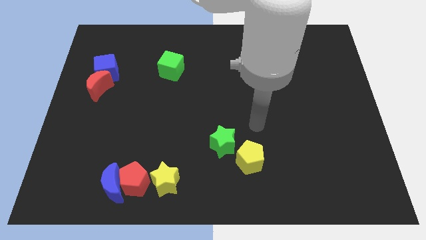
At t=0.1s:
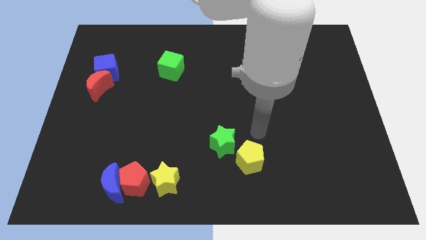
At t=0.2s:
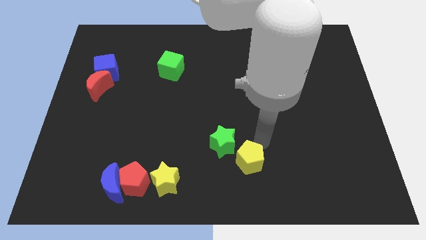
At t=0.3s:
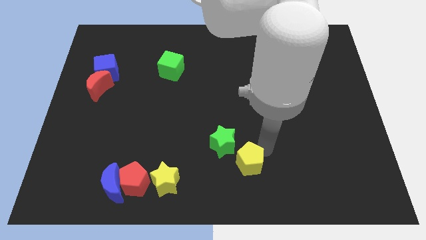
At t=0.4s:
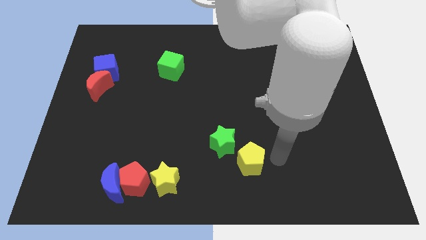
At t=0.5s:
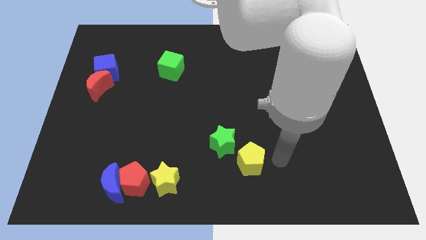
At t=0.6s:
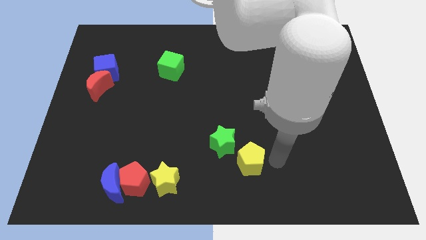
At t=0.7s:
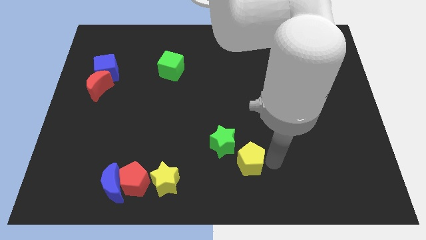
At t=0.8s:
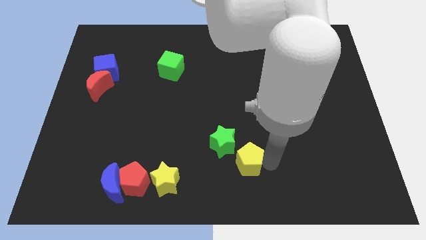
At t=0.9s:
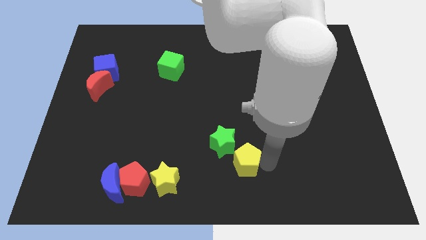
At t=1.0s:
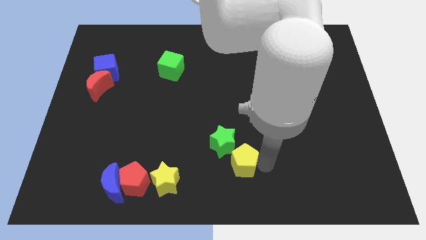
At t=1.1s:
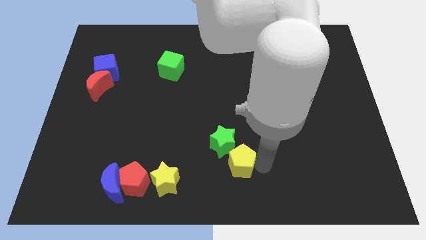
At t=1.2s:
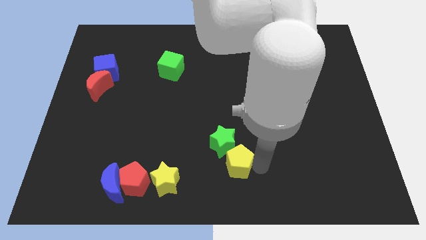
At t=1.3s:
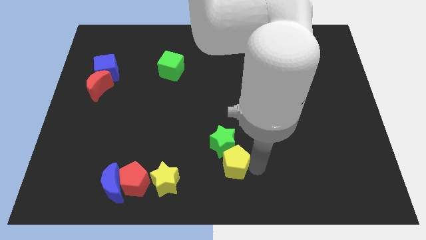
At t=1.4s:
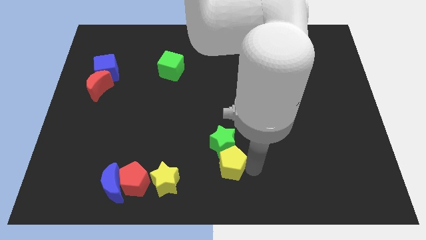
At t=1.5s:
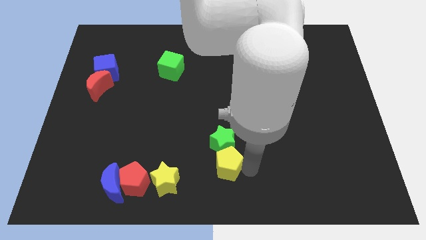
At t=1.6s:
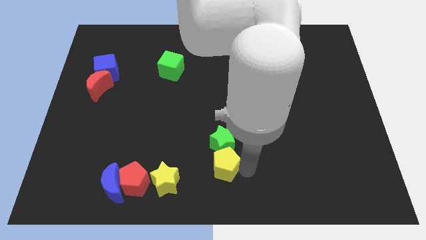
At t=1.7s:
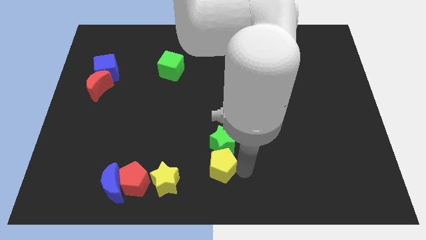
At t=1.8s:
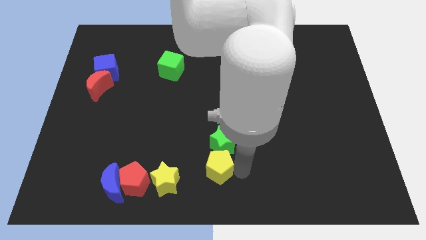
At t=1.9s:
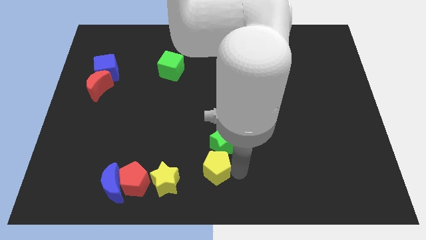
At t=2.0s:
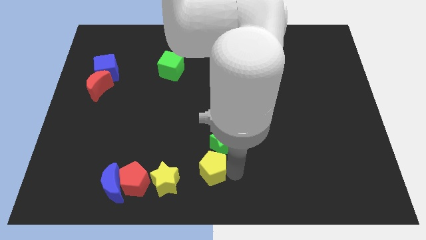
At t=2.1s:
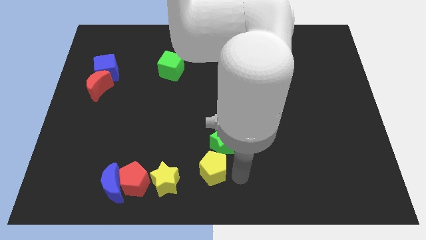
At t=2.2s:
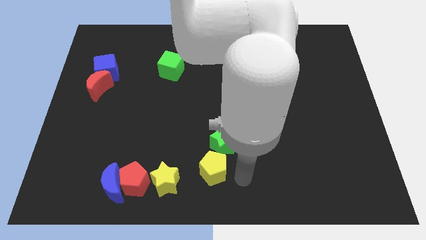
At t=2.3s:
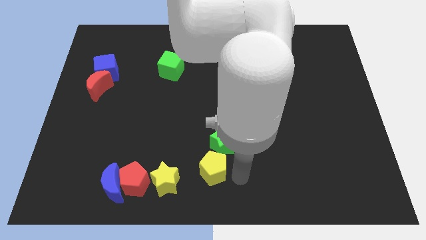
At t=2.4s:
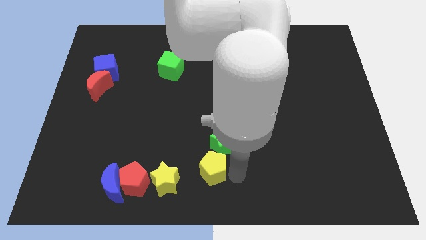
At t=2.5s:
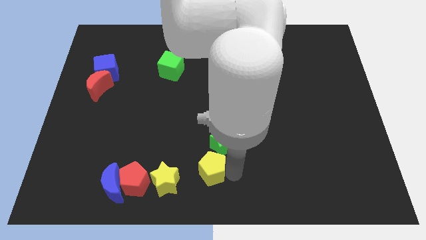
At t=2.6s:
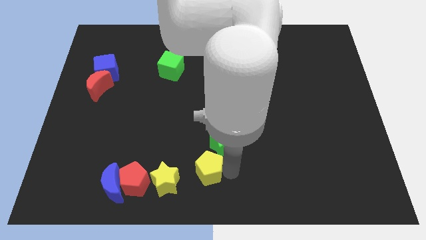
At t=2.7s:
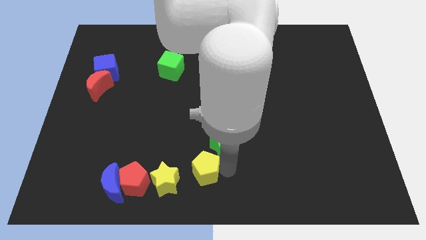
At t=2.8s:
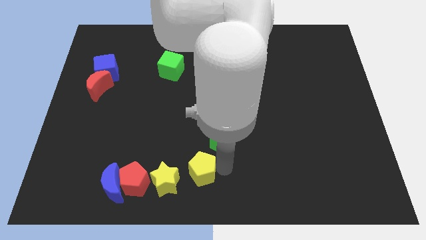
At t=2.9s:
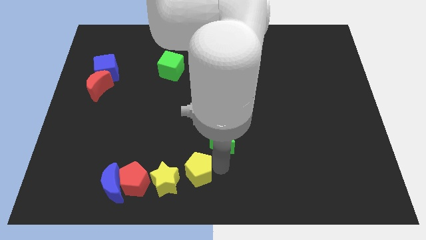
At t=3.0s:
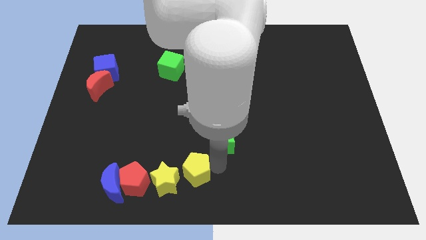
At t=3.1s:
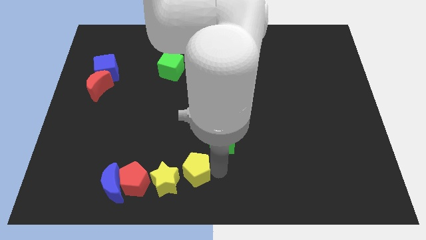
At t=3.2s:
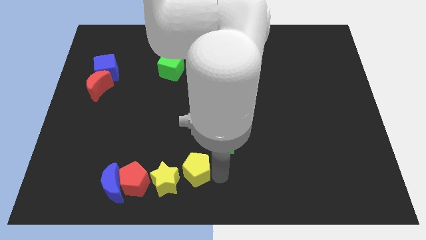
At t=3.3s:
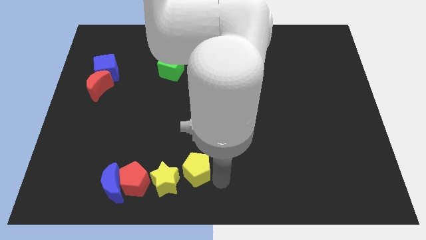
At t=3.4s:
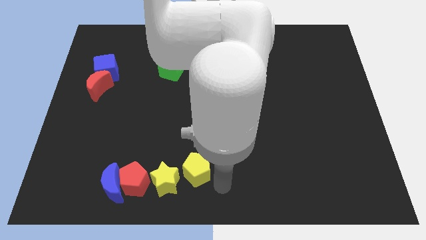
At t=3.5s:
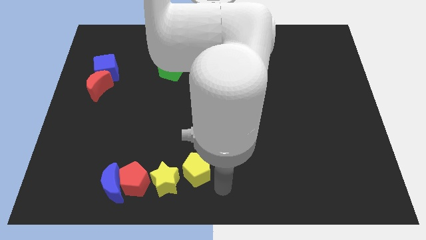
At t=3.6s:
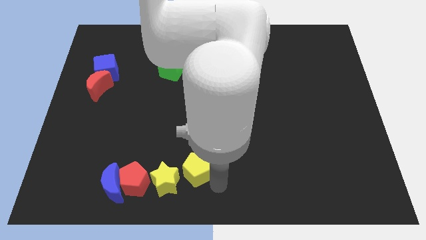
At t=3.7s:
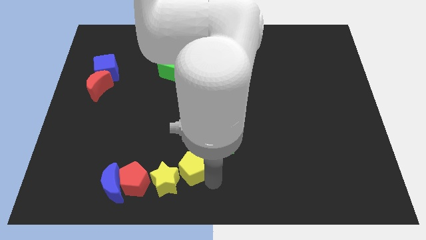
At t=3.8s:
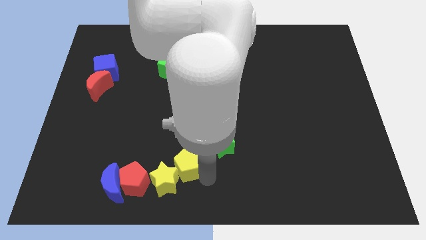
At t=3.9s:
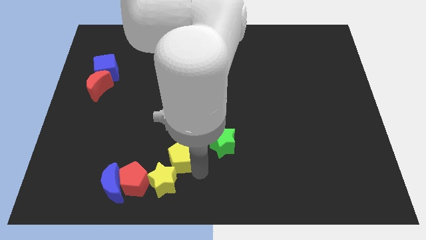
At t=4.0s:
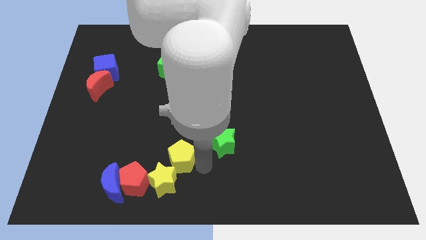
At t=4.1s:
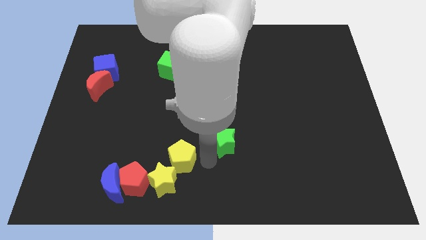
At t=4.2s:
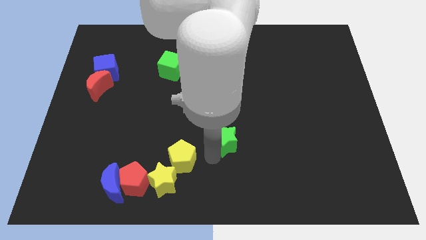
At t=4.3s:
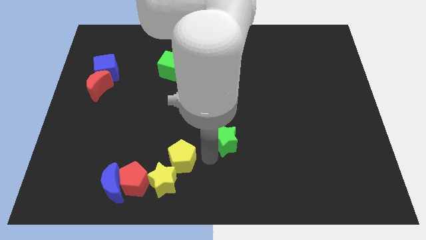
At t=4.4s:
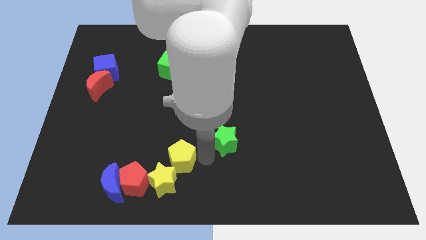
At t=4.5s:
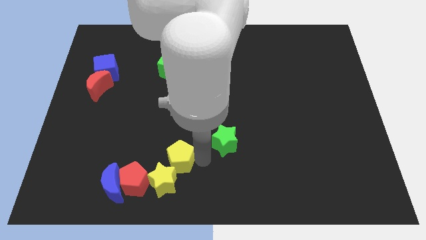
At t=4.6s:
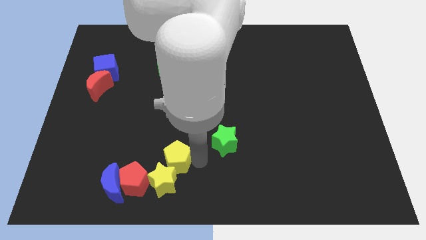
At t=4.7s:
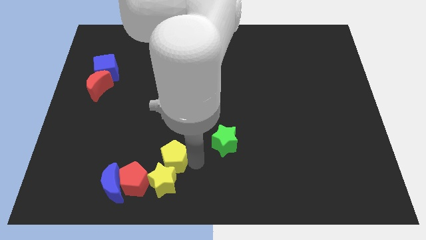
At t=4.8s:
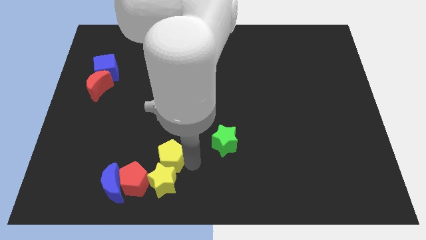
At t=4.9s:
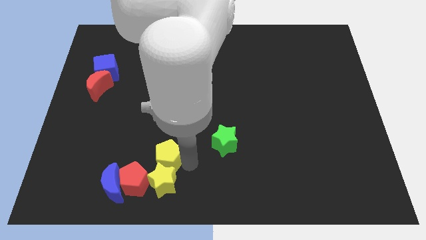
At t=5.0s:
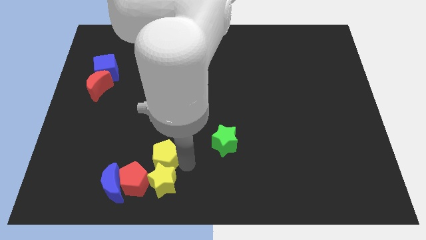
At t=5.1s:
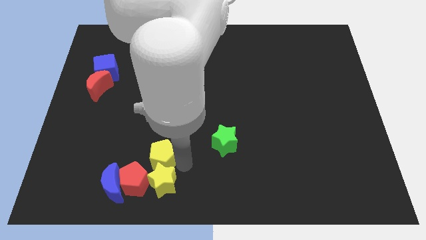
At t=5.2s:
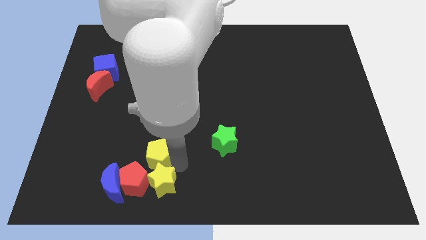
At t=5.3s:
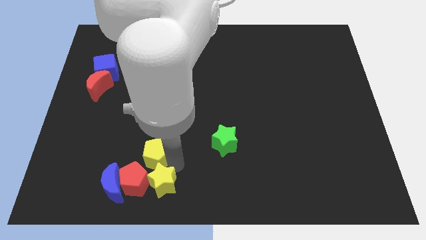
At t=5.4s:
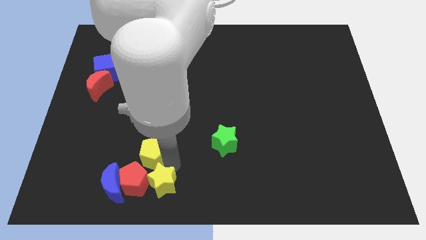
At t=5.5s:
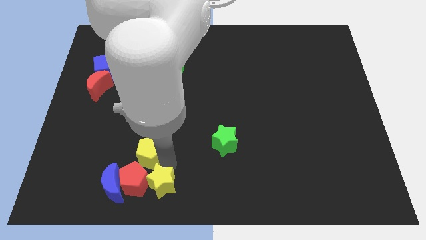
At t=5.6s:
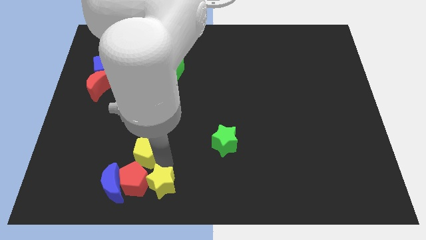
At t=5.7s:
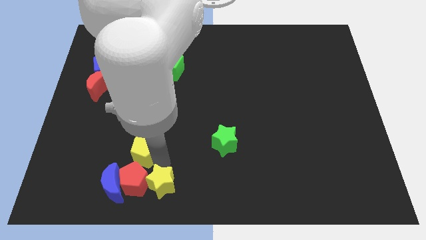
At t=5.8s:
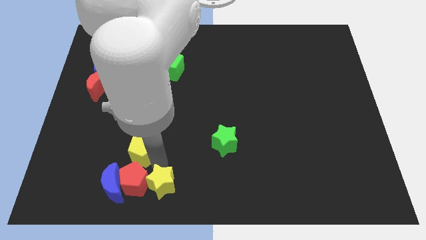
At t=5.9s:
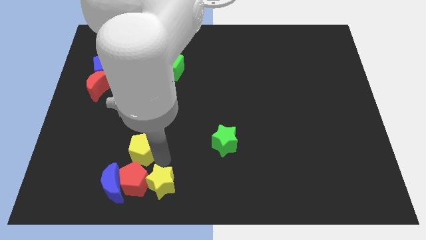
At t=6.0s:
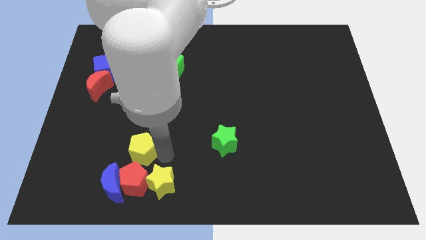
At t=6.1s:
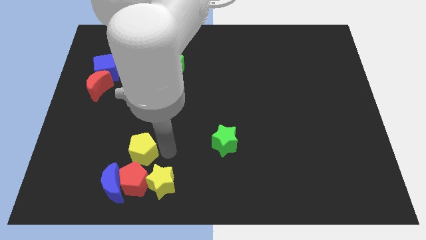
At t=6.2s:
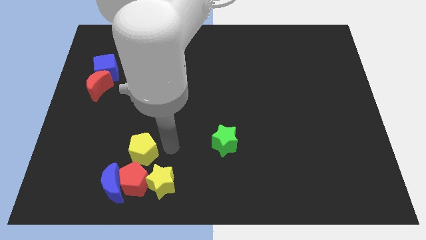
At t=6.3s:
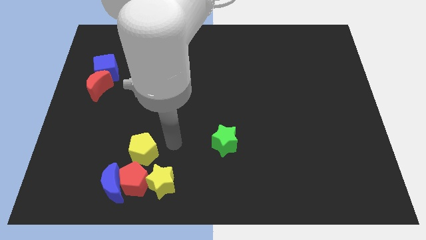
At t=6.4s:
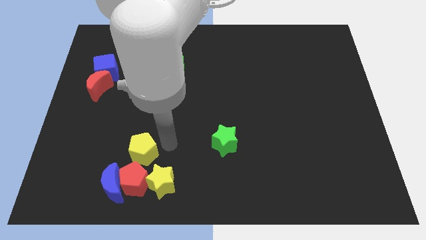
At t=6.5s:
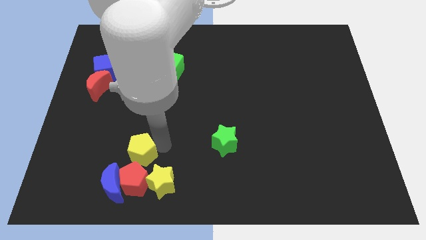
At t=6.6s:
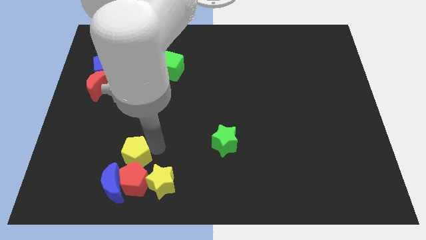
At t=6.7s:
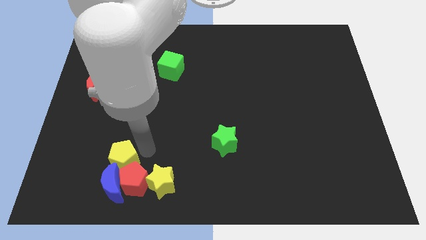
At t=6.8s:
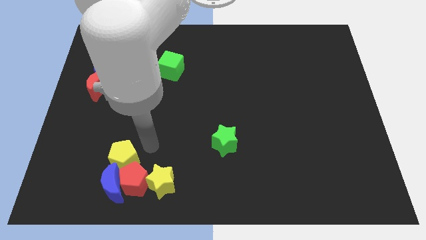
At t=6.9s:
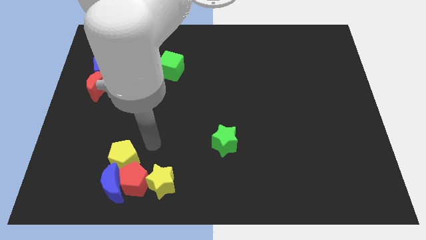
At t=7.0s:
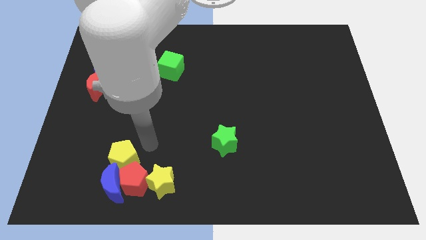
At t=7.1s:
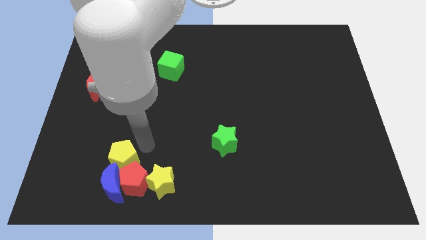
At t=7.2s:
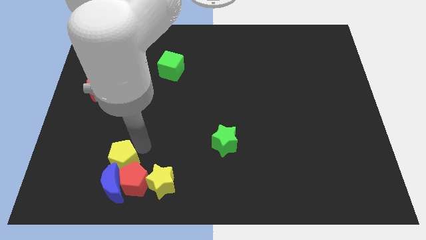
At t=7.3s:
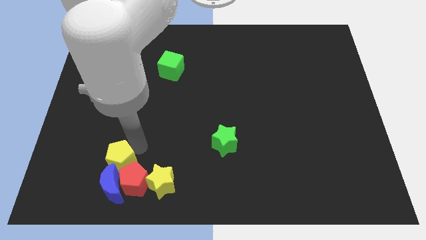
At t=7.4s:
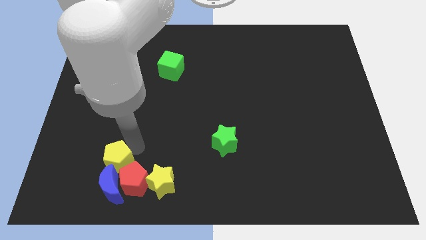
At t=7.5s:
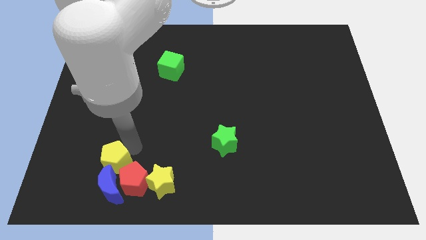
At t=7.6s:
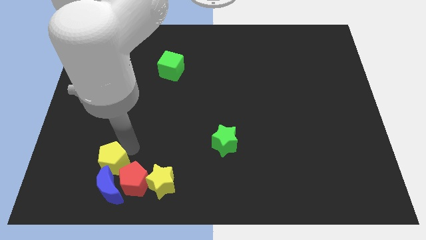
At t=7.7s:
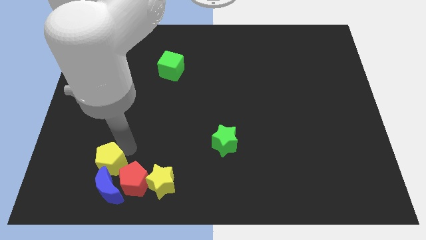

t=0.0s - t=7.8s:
move the yellow pentagon to the left side of the yellow star
